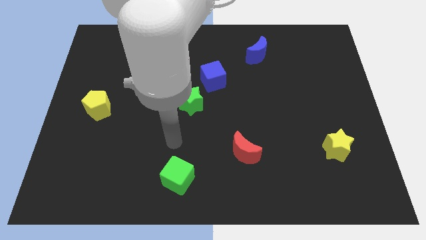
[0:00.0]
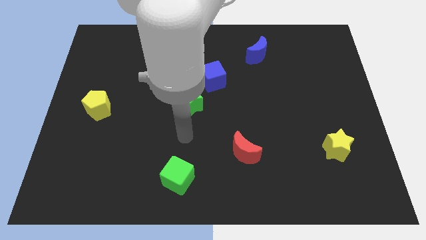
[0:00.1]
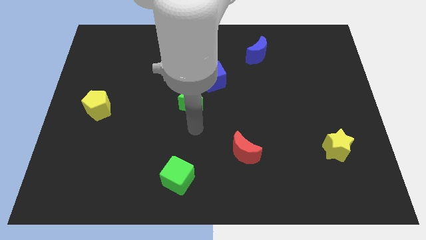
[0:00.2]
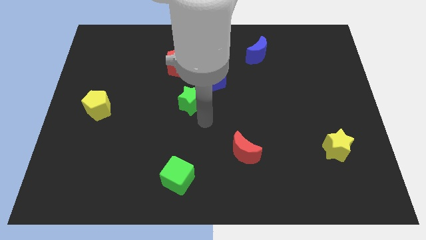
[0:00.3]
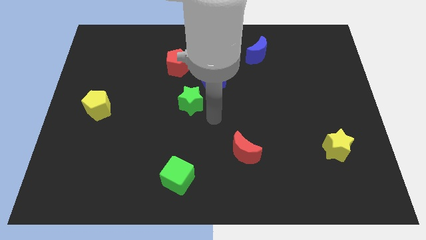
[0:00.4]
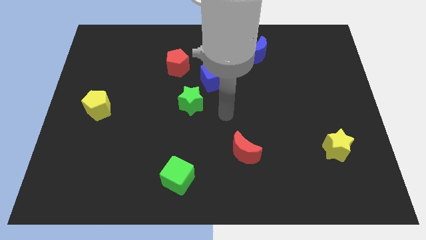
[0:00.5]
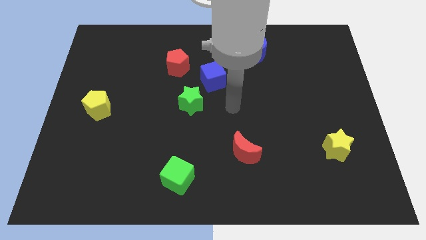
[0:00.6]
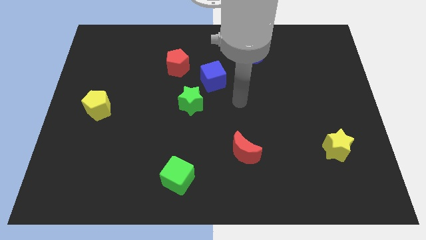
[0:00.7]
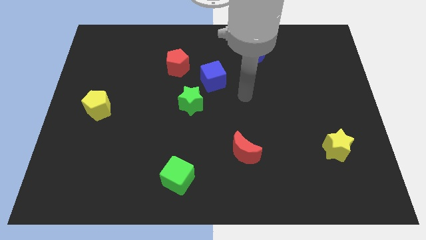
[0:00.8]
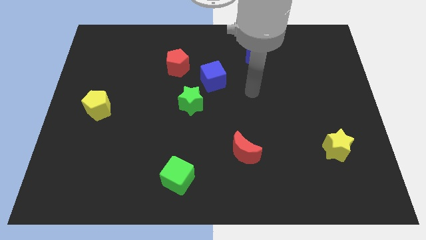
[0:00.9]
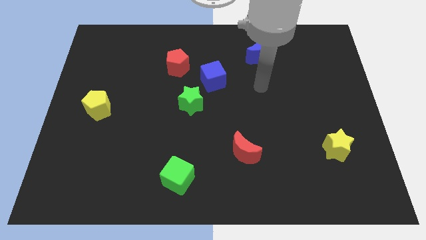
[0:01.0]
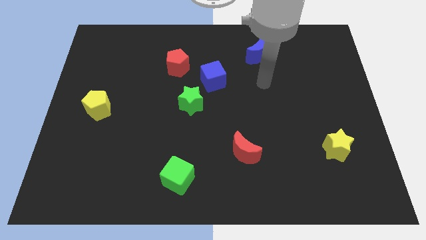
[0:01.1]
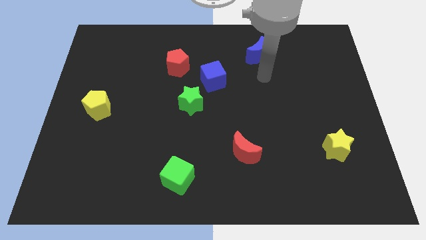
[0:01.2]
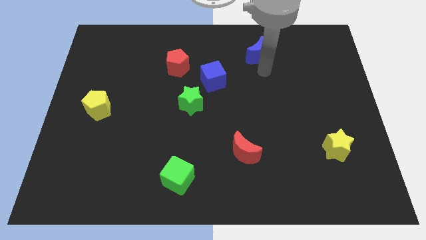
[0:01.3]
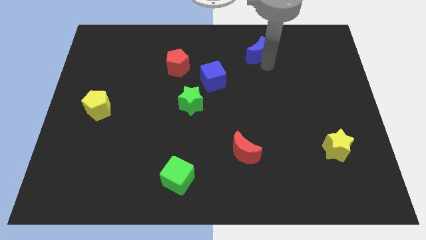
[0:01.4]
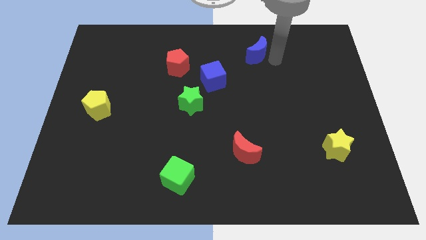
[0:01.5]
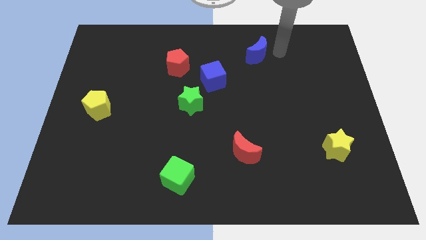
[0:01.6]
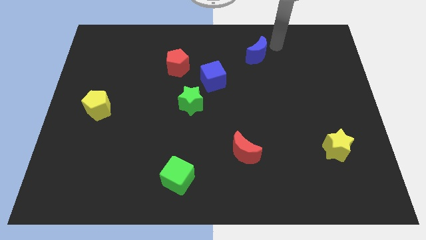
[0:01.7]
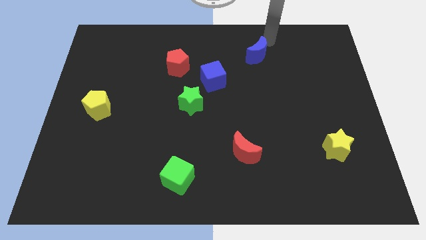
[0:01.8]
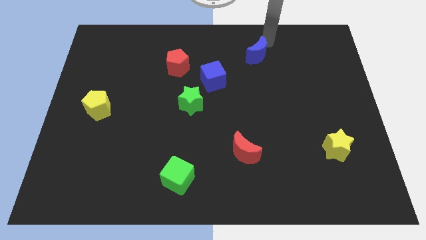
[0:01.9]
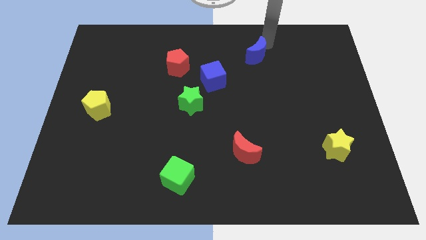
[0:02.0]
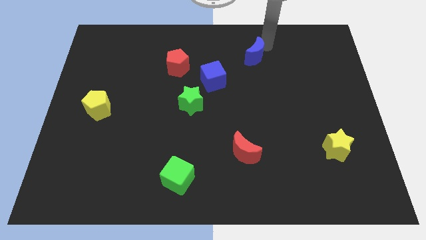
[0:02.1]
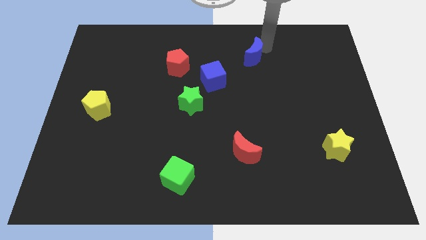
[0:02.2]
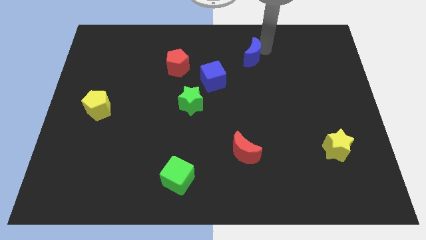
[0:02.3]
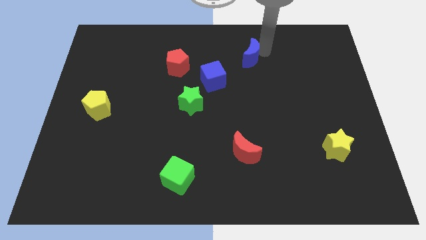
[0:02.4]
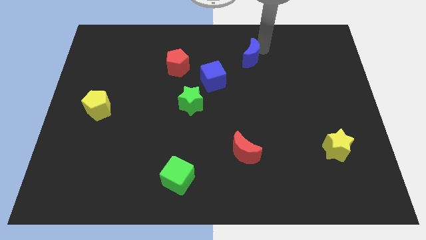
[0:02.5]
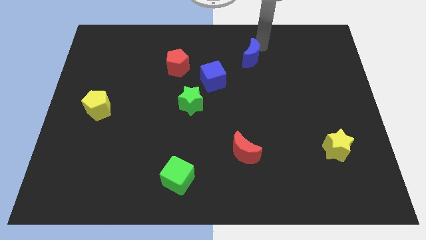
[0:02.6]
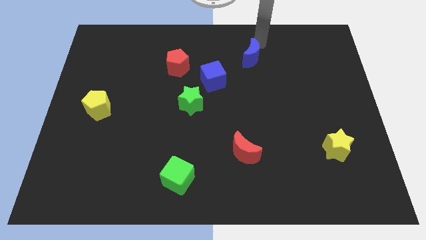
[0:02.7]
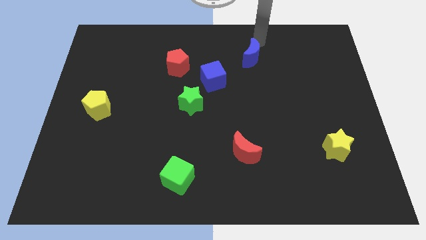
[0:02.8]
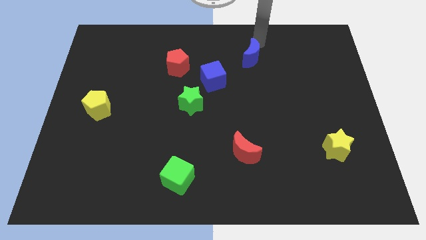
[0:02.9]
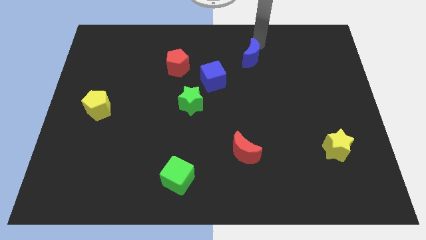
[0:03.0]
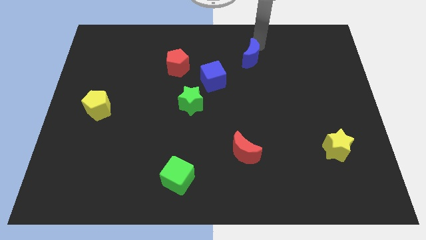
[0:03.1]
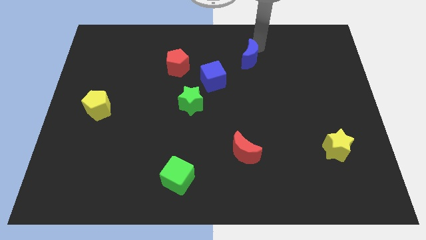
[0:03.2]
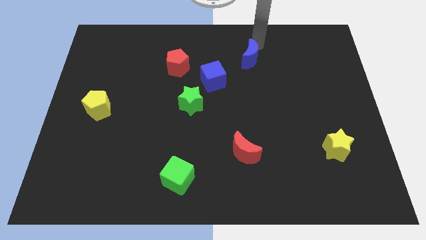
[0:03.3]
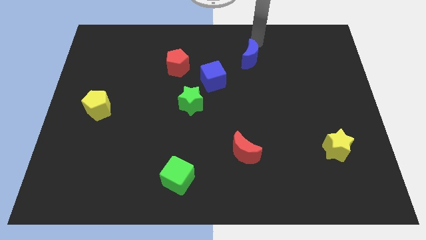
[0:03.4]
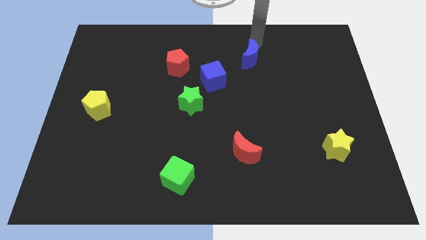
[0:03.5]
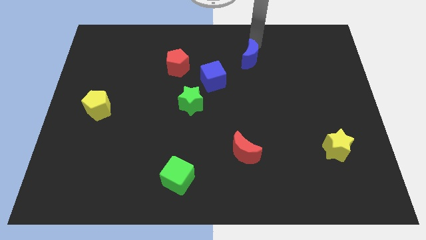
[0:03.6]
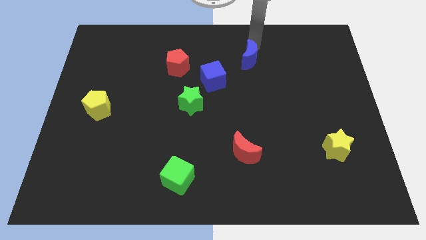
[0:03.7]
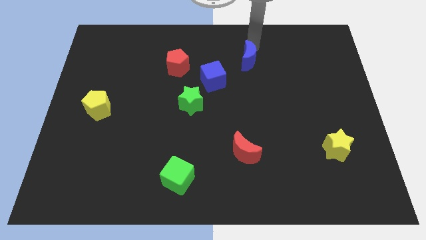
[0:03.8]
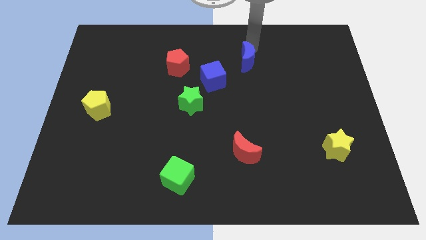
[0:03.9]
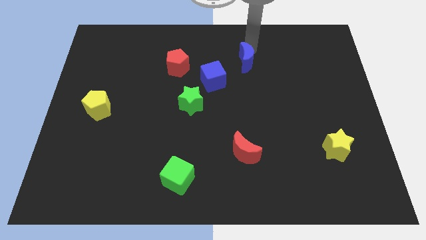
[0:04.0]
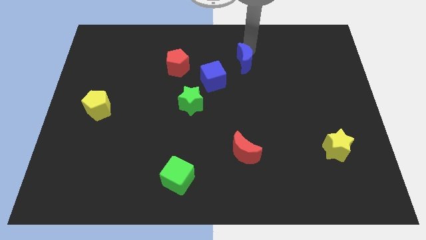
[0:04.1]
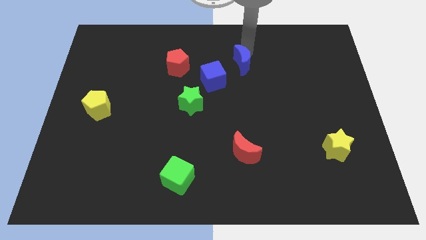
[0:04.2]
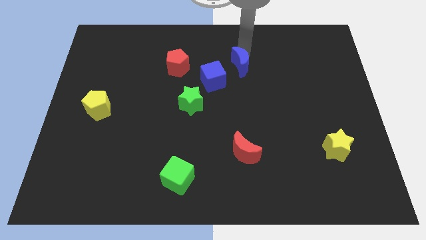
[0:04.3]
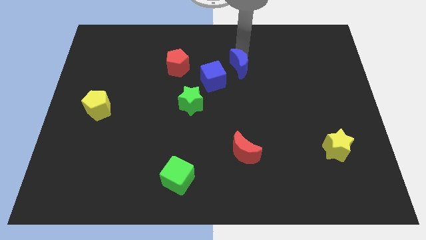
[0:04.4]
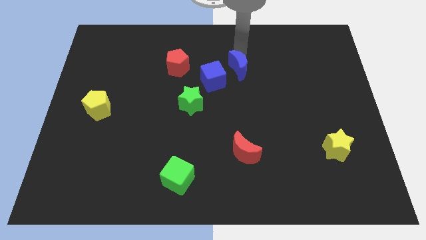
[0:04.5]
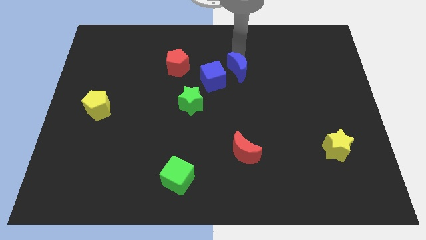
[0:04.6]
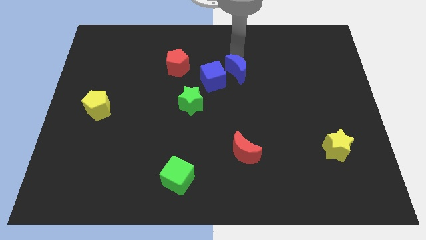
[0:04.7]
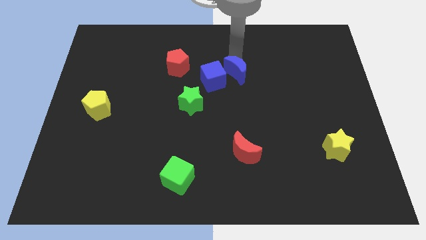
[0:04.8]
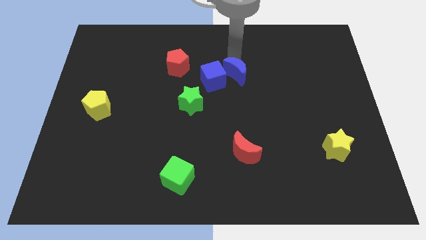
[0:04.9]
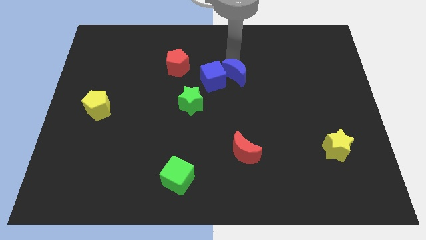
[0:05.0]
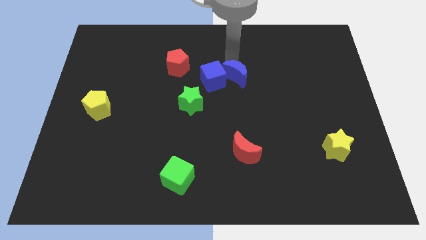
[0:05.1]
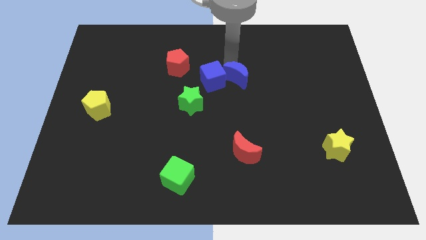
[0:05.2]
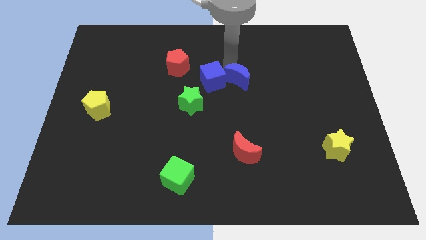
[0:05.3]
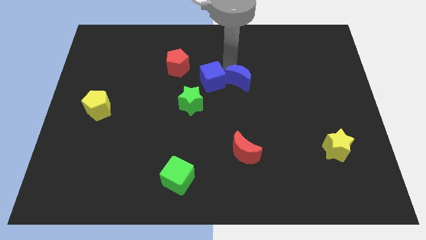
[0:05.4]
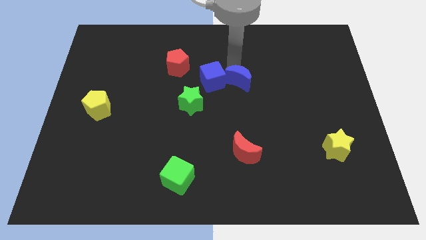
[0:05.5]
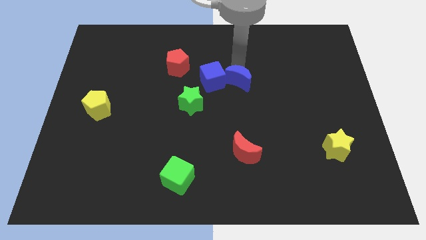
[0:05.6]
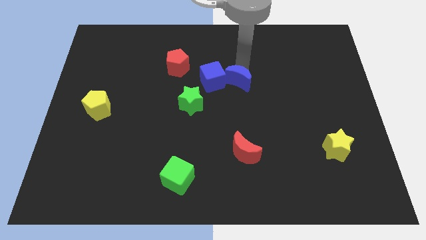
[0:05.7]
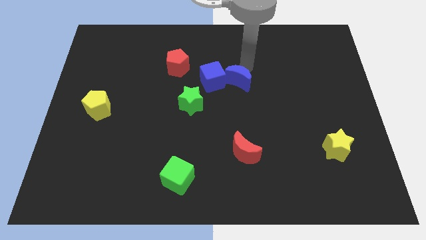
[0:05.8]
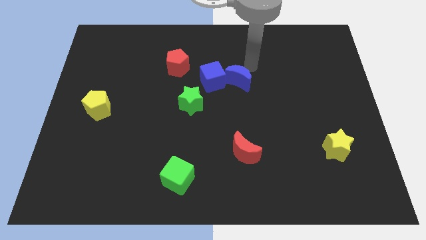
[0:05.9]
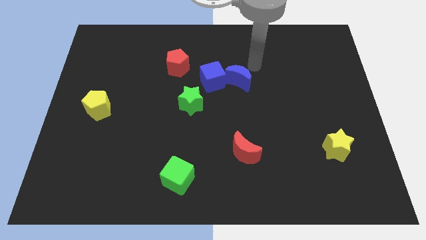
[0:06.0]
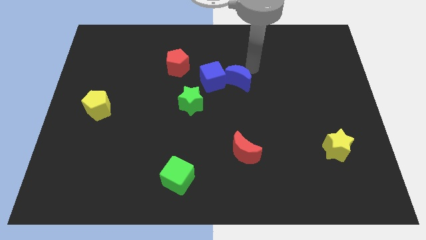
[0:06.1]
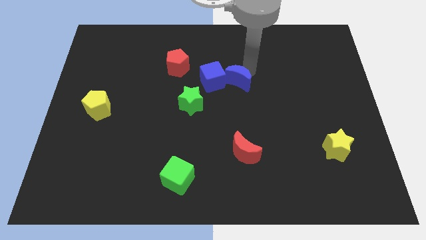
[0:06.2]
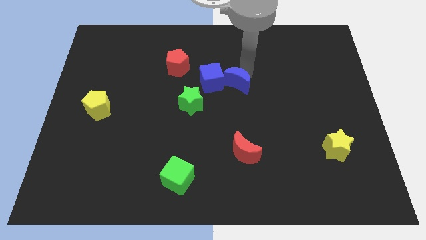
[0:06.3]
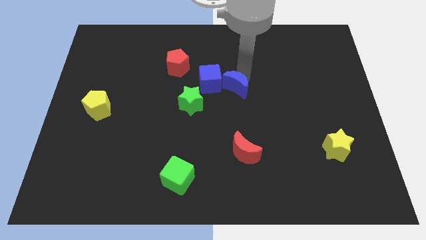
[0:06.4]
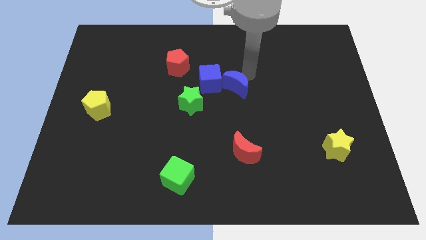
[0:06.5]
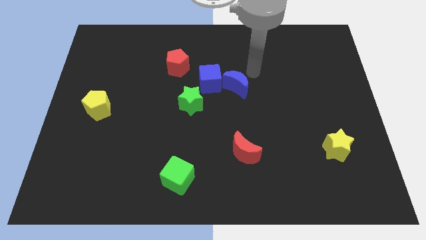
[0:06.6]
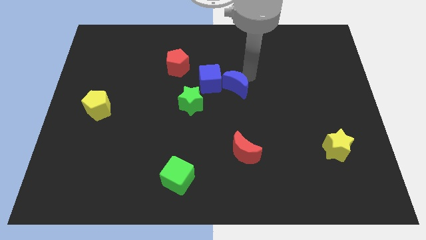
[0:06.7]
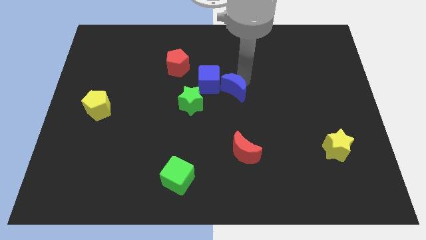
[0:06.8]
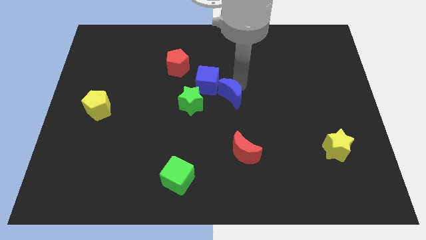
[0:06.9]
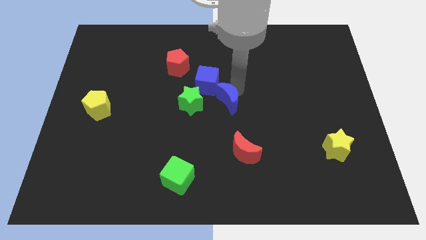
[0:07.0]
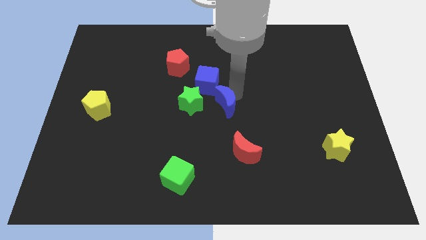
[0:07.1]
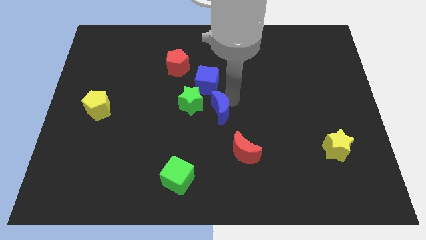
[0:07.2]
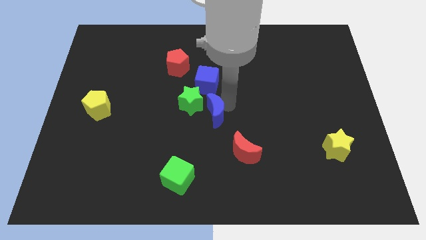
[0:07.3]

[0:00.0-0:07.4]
slide the blue moon down and left

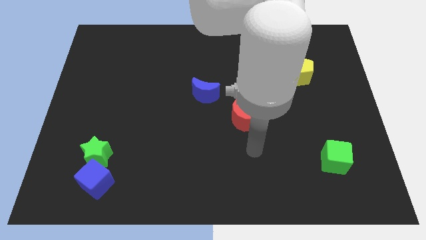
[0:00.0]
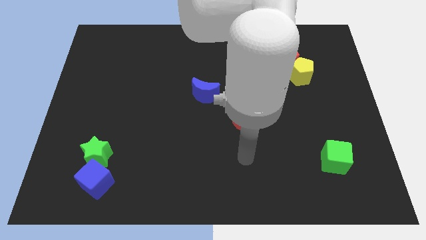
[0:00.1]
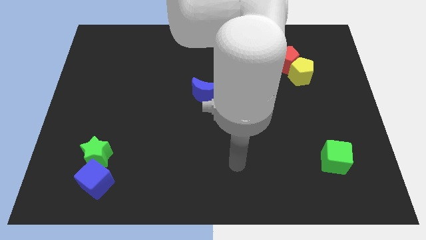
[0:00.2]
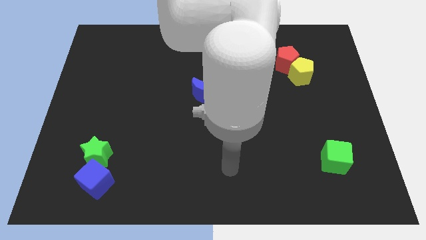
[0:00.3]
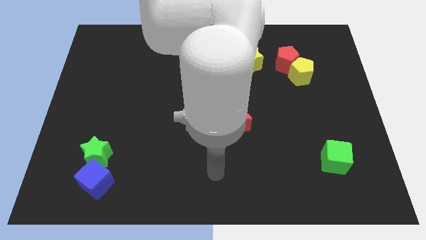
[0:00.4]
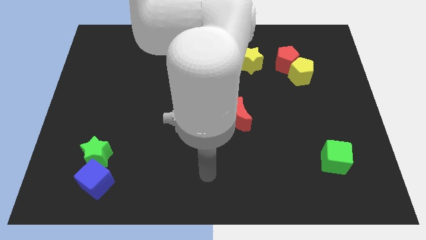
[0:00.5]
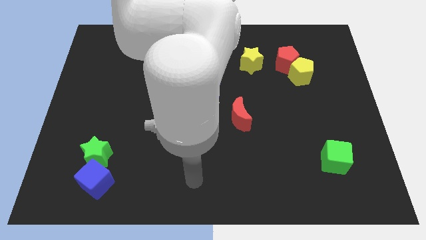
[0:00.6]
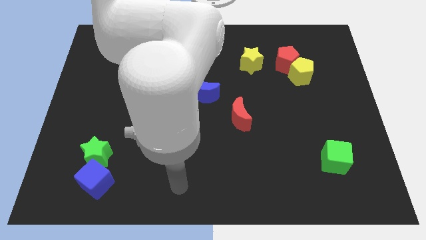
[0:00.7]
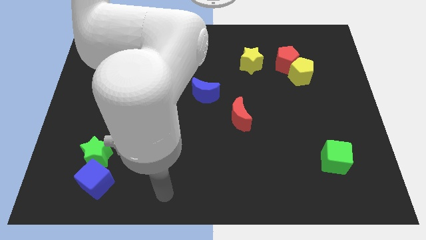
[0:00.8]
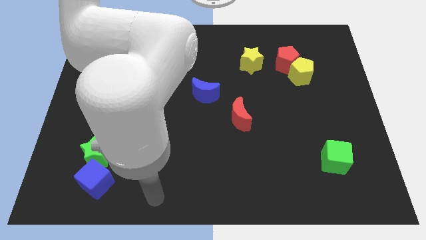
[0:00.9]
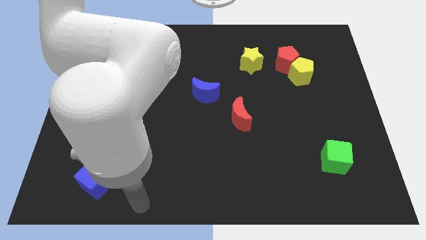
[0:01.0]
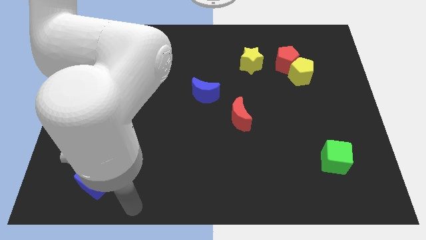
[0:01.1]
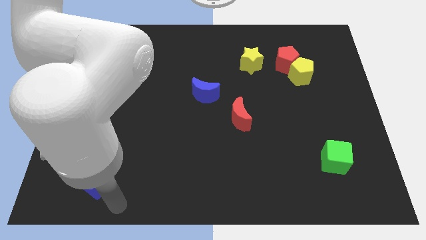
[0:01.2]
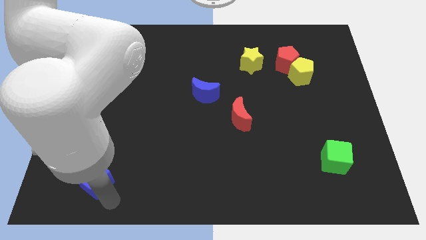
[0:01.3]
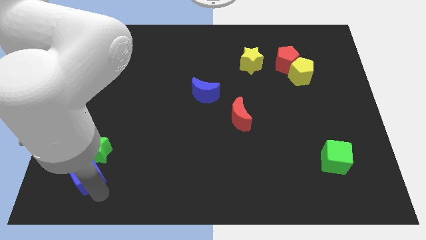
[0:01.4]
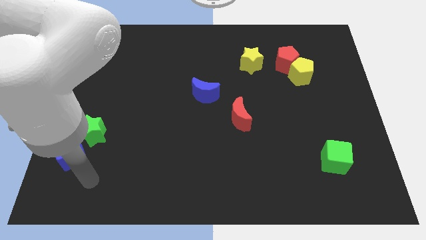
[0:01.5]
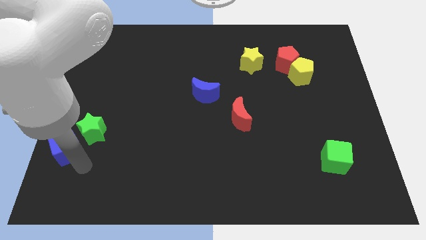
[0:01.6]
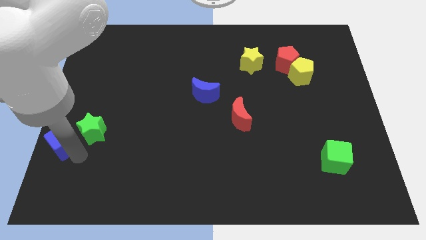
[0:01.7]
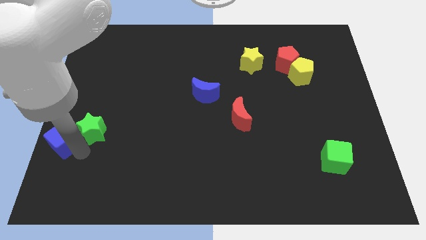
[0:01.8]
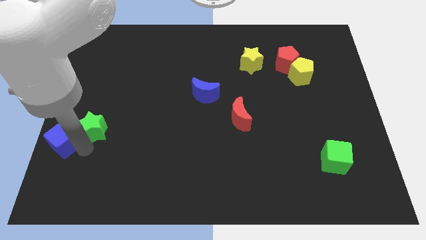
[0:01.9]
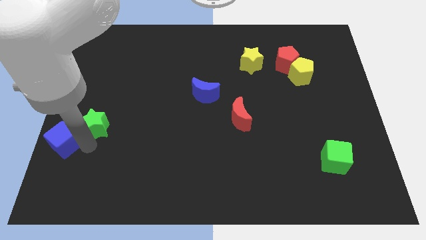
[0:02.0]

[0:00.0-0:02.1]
slightly push the green star up
